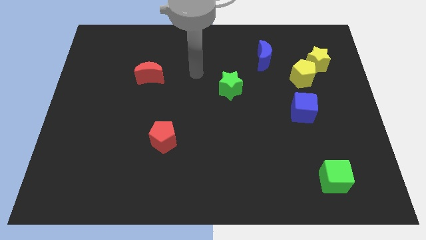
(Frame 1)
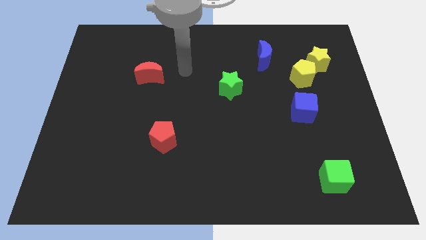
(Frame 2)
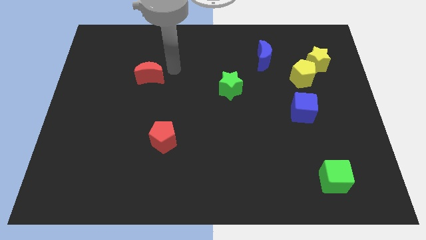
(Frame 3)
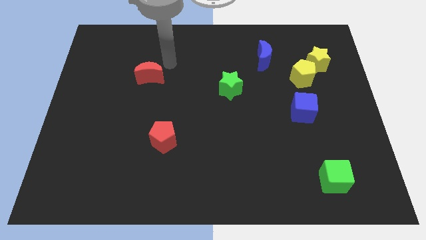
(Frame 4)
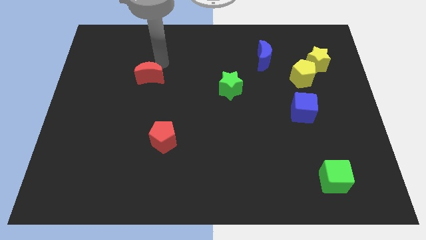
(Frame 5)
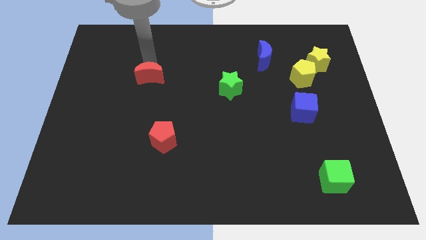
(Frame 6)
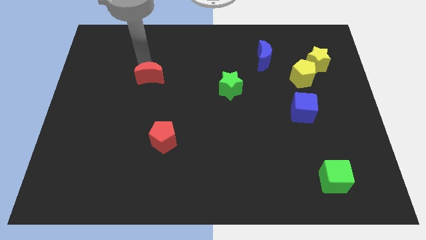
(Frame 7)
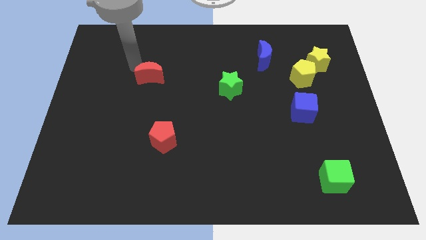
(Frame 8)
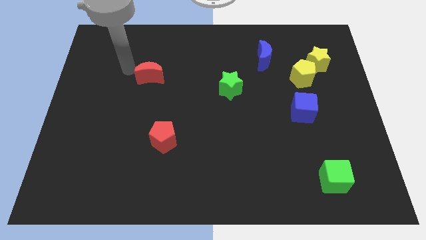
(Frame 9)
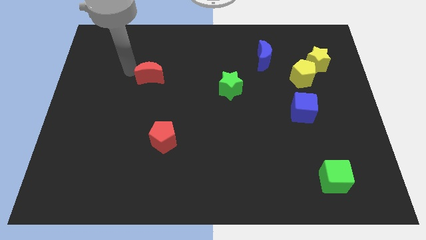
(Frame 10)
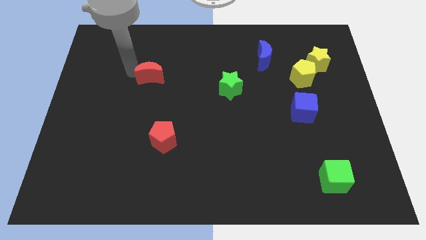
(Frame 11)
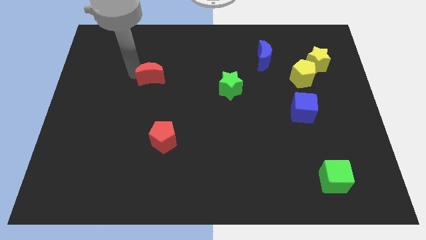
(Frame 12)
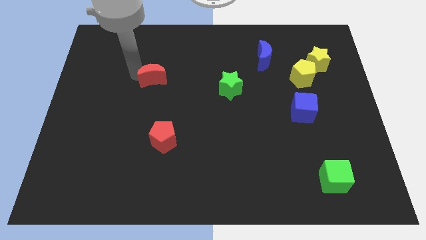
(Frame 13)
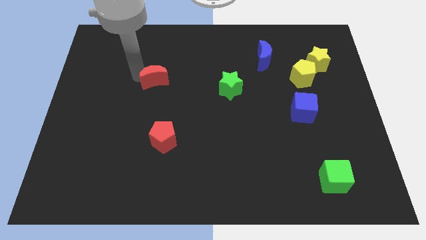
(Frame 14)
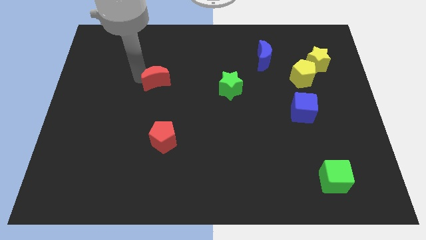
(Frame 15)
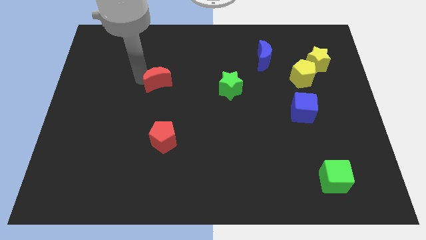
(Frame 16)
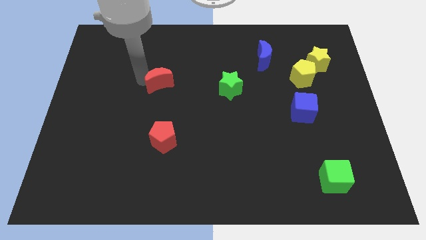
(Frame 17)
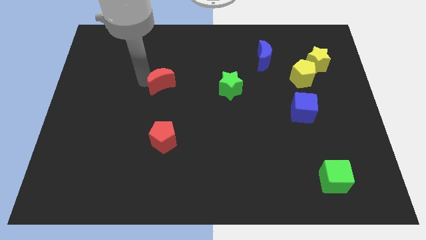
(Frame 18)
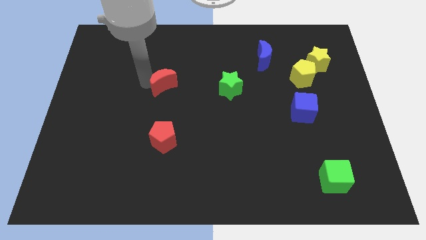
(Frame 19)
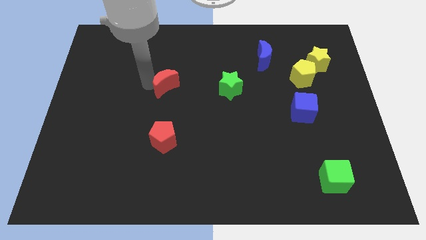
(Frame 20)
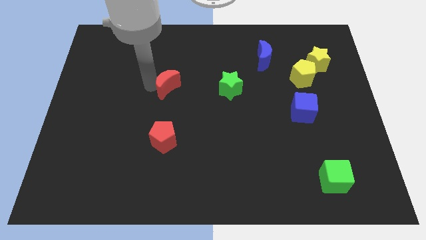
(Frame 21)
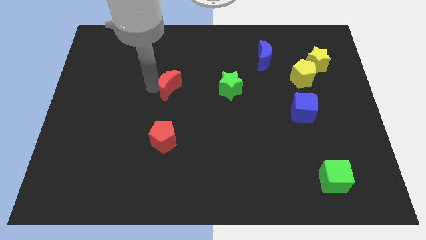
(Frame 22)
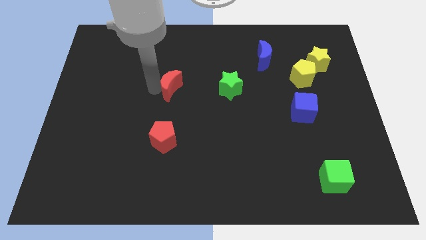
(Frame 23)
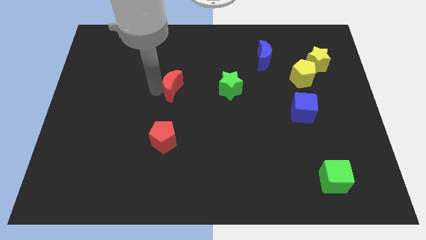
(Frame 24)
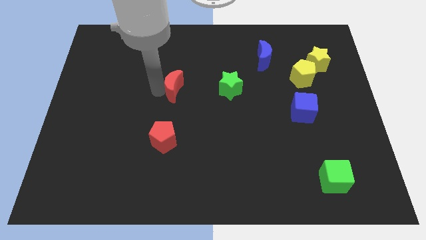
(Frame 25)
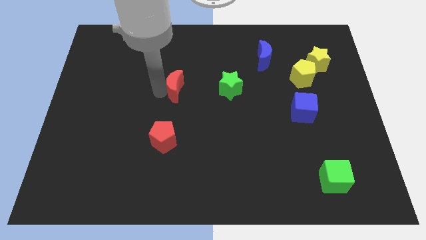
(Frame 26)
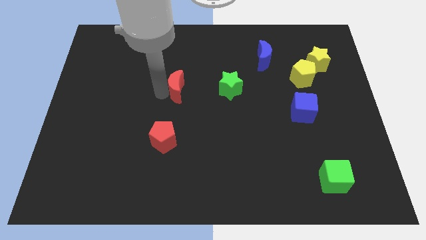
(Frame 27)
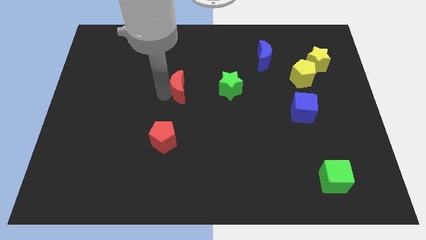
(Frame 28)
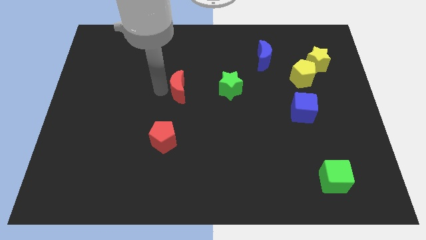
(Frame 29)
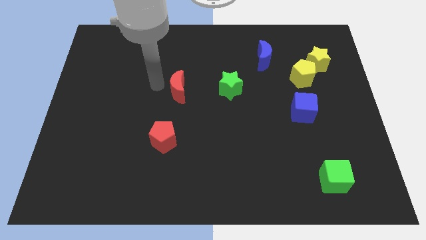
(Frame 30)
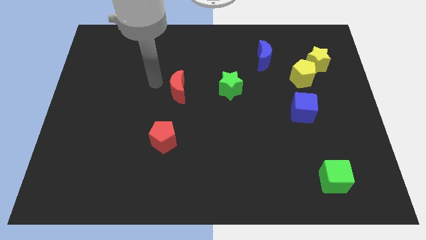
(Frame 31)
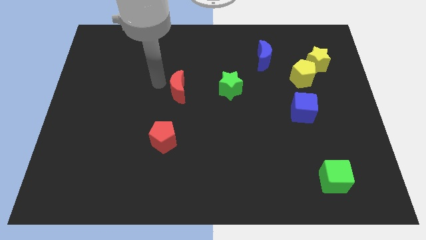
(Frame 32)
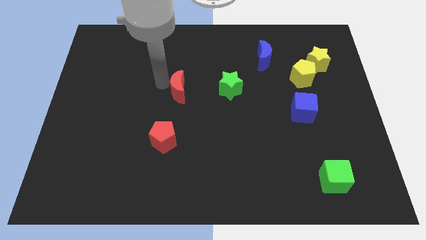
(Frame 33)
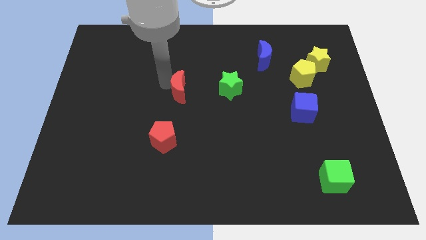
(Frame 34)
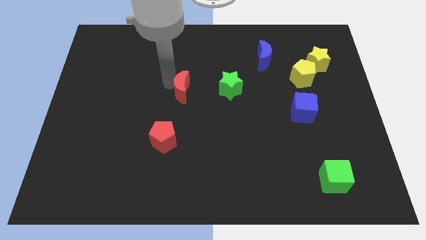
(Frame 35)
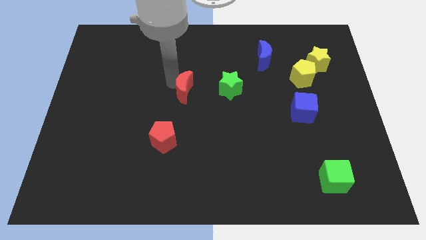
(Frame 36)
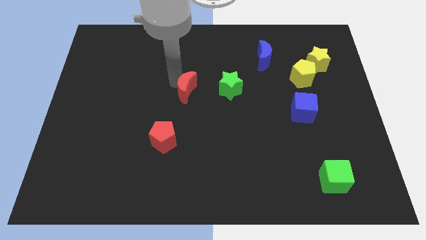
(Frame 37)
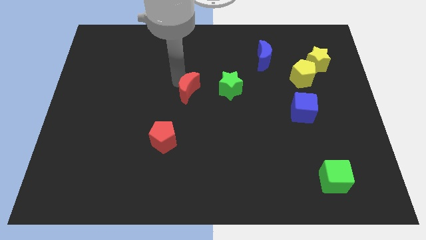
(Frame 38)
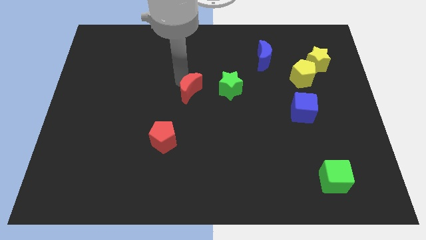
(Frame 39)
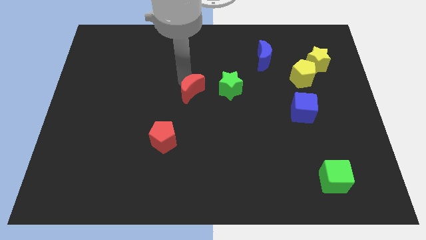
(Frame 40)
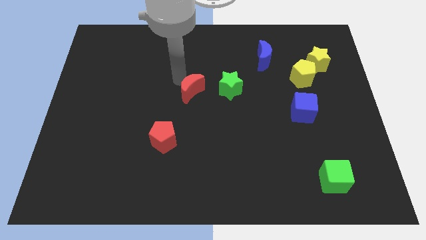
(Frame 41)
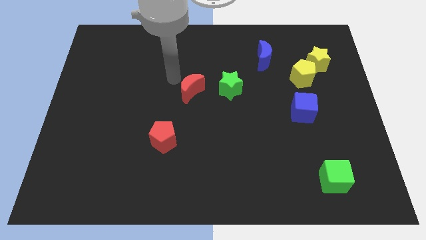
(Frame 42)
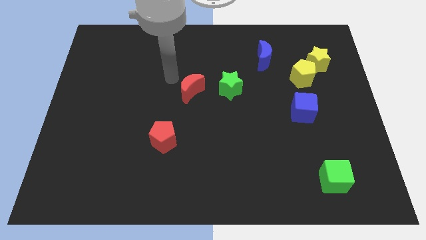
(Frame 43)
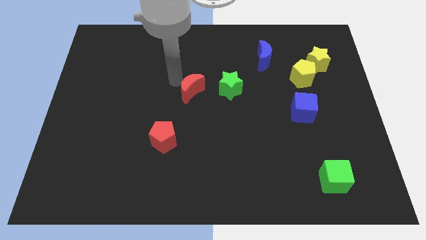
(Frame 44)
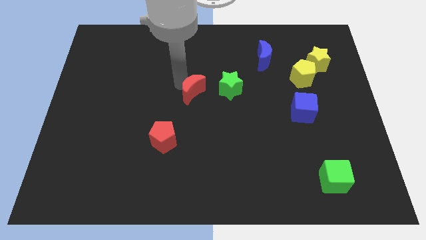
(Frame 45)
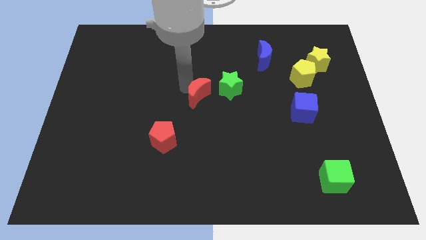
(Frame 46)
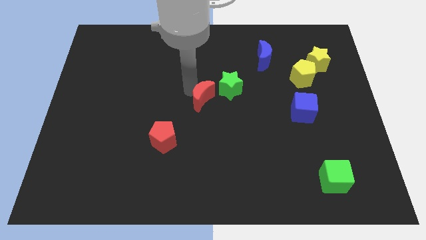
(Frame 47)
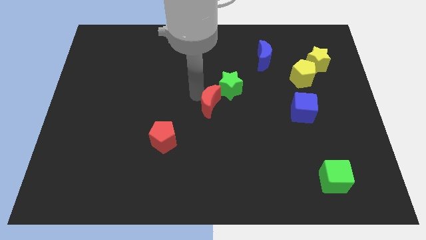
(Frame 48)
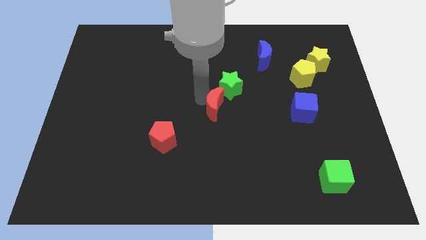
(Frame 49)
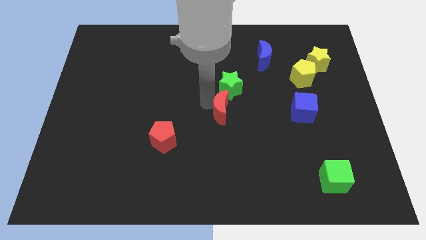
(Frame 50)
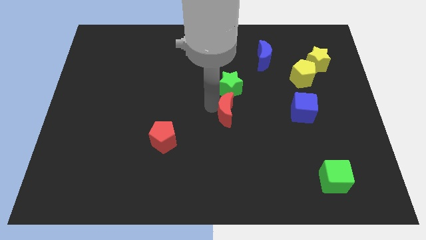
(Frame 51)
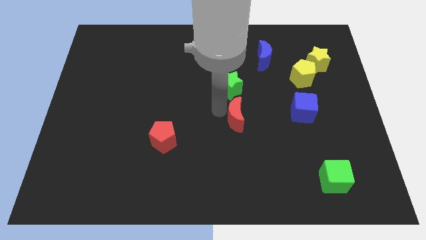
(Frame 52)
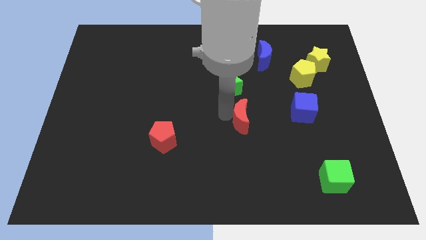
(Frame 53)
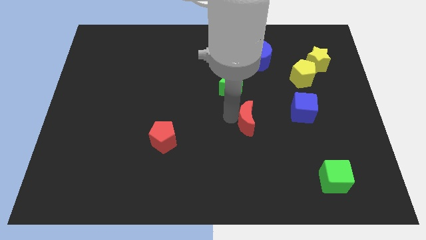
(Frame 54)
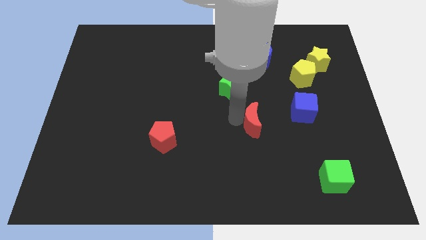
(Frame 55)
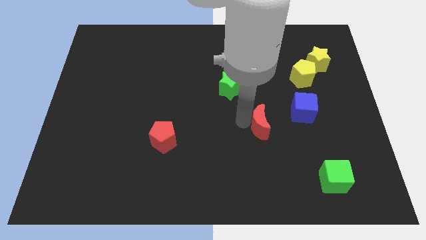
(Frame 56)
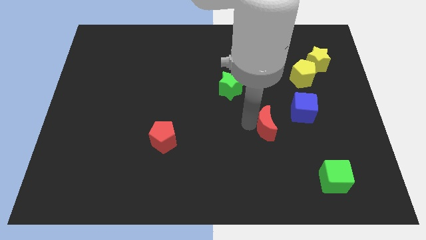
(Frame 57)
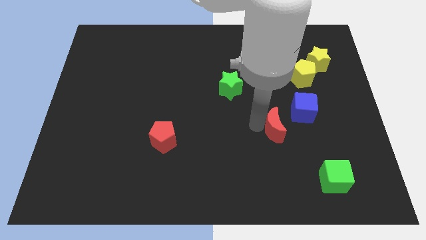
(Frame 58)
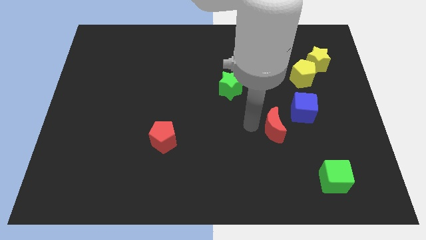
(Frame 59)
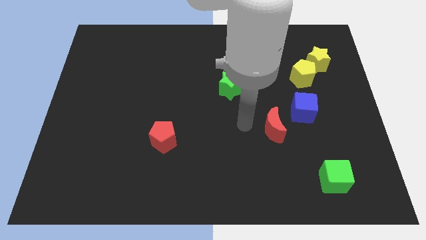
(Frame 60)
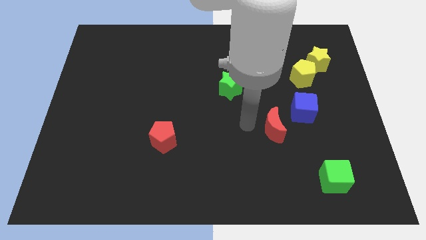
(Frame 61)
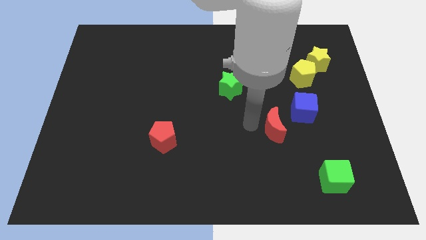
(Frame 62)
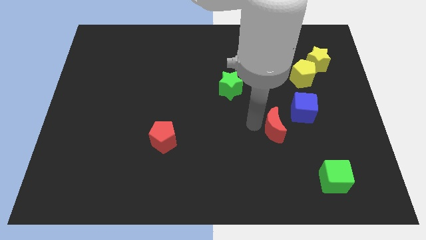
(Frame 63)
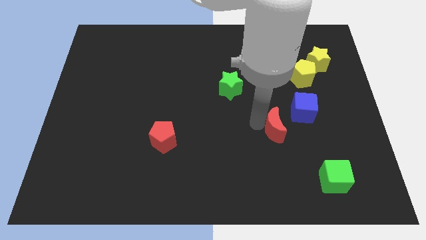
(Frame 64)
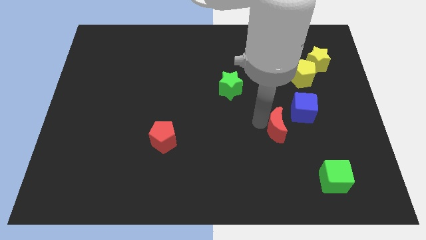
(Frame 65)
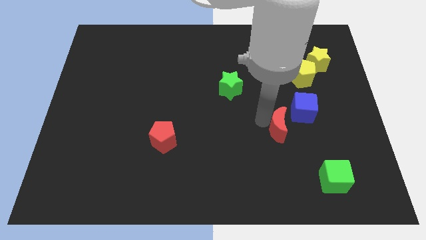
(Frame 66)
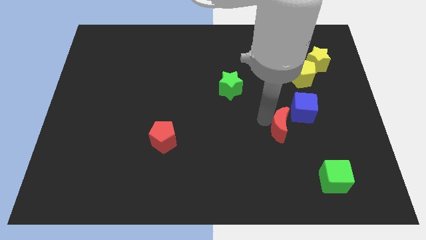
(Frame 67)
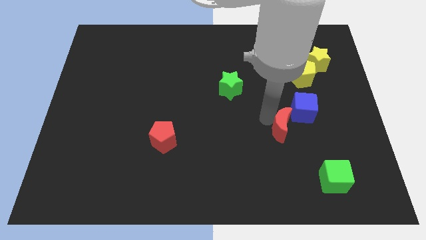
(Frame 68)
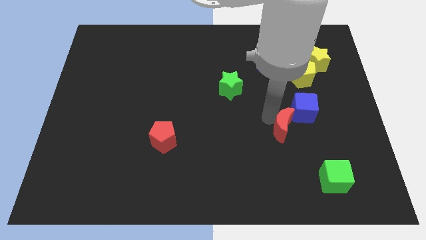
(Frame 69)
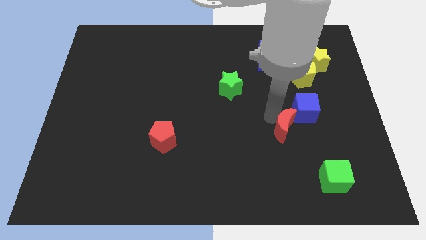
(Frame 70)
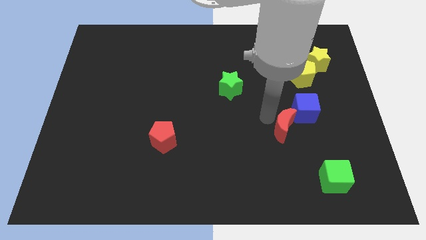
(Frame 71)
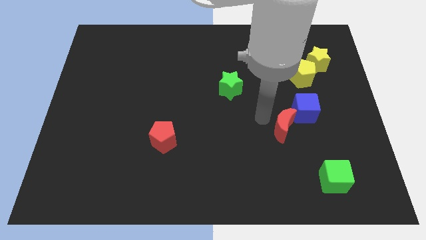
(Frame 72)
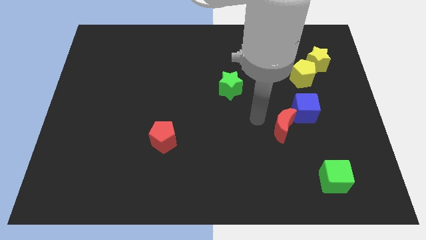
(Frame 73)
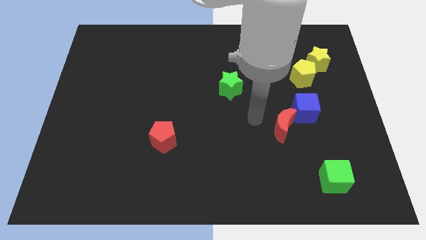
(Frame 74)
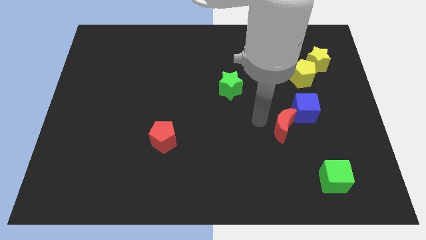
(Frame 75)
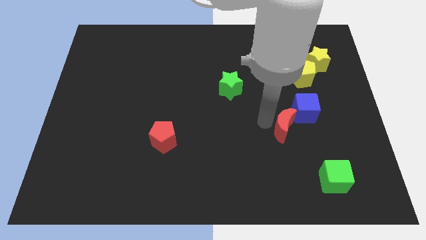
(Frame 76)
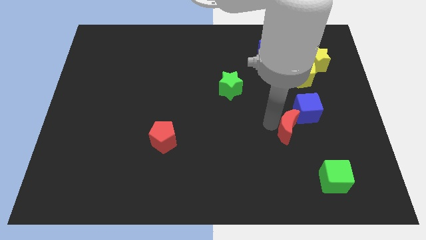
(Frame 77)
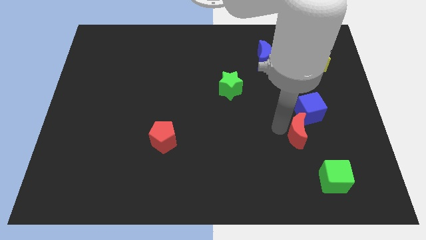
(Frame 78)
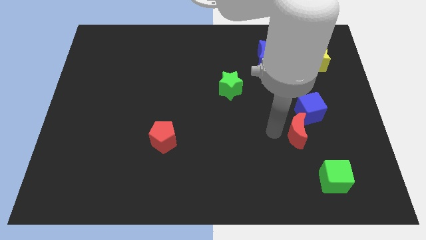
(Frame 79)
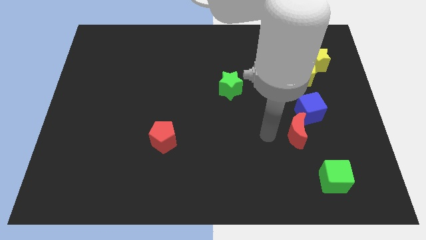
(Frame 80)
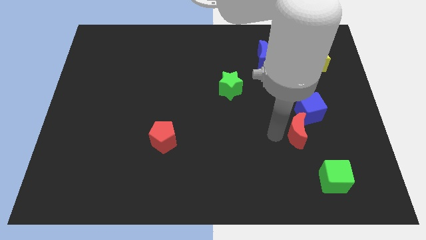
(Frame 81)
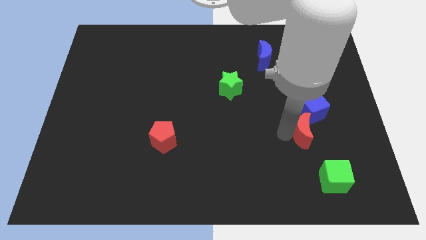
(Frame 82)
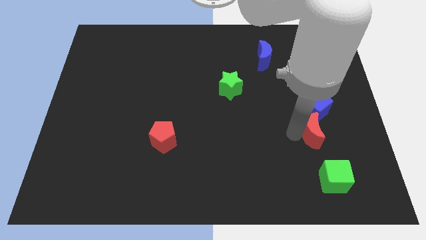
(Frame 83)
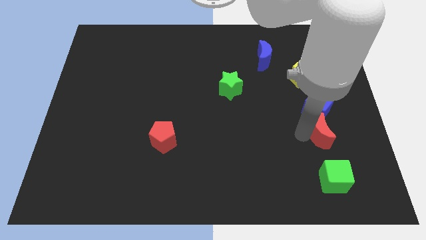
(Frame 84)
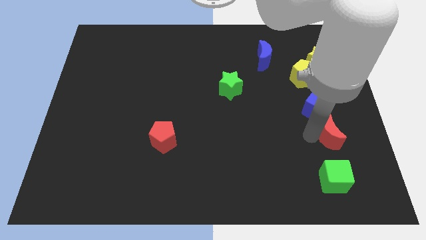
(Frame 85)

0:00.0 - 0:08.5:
push the red moon to the bottom right side of the blue cube
